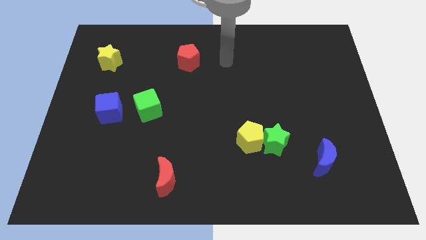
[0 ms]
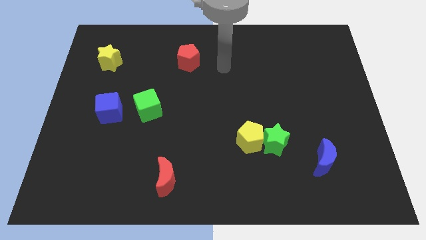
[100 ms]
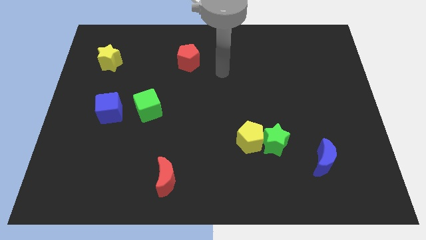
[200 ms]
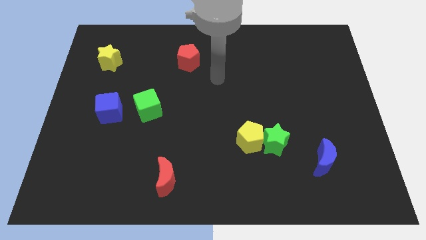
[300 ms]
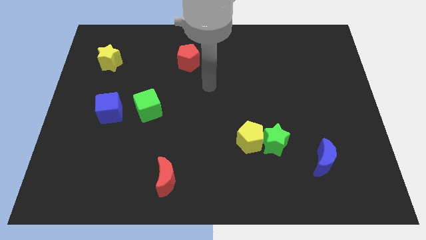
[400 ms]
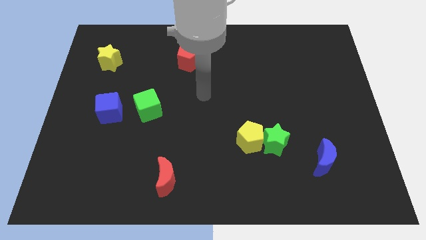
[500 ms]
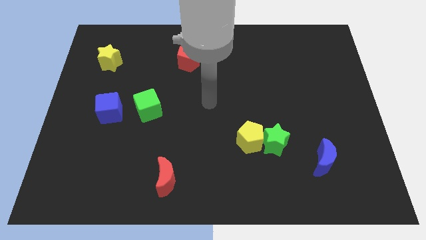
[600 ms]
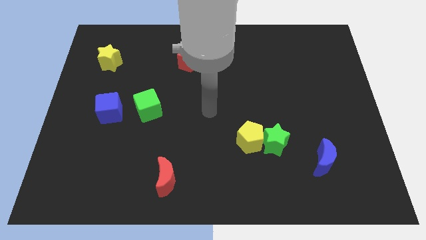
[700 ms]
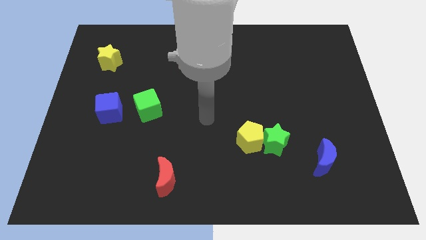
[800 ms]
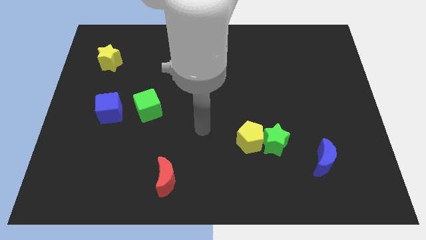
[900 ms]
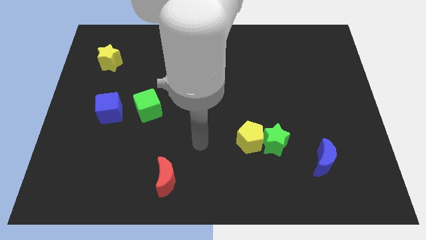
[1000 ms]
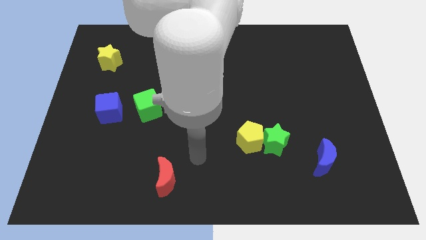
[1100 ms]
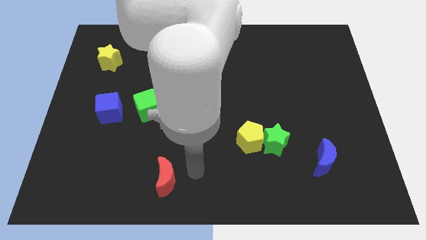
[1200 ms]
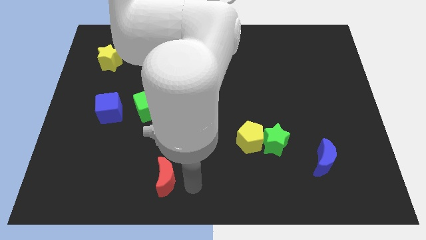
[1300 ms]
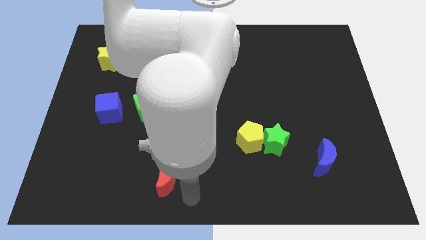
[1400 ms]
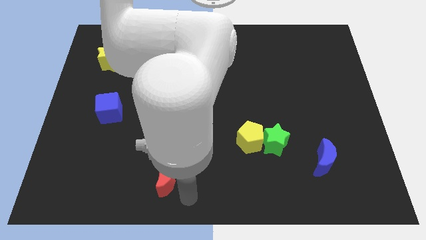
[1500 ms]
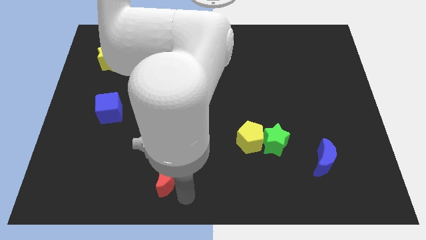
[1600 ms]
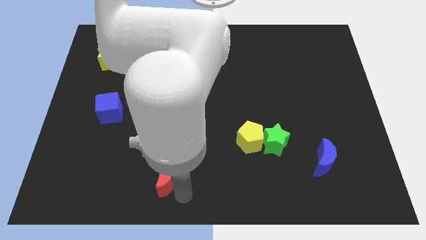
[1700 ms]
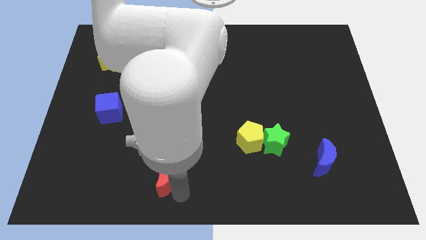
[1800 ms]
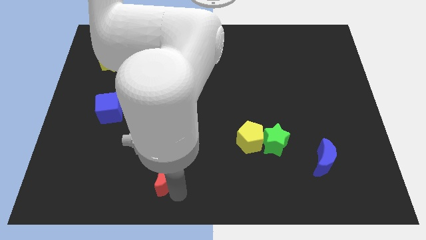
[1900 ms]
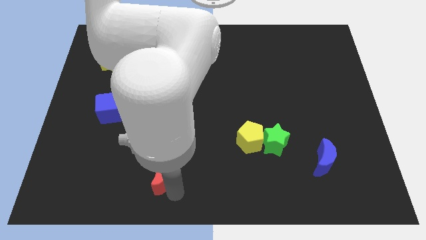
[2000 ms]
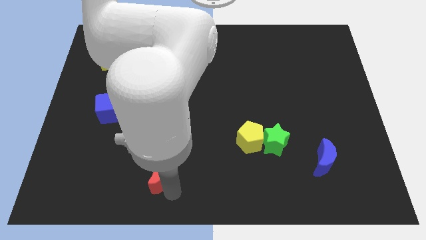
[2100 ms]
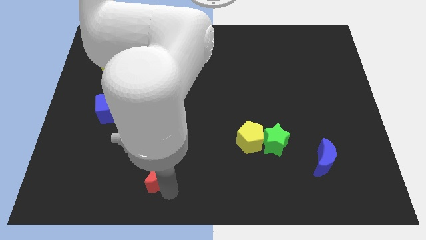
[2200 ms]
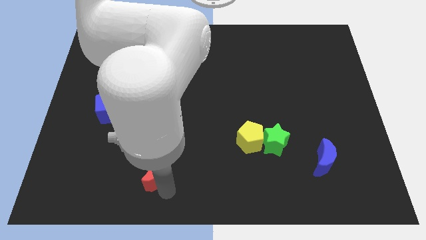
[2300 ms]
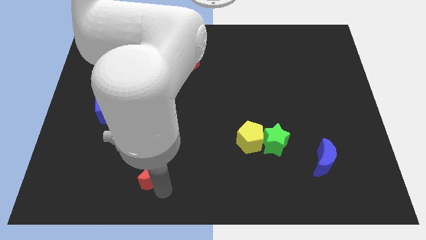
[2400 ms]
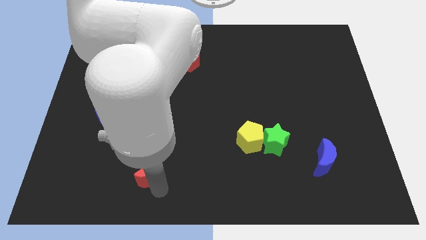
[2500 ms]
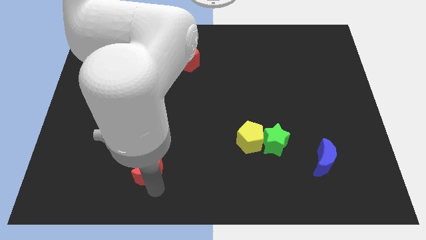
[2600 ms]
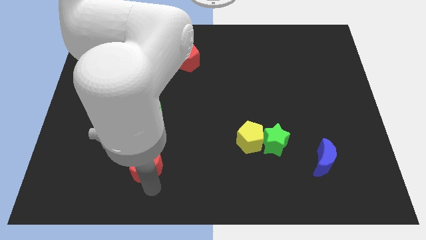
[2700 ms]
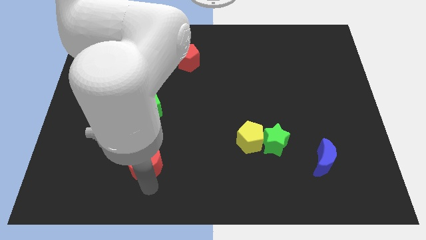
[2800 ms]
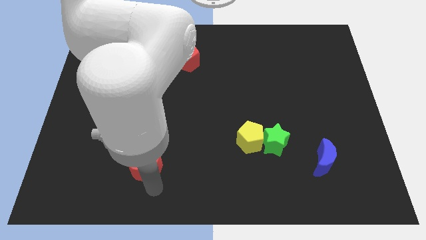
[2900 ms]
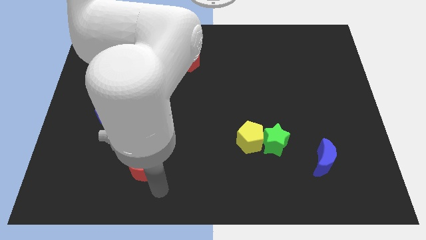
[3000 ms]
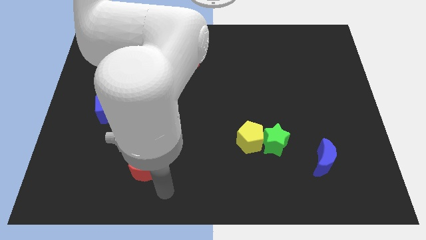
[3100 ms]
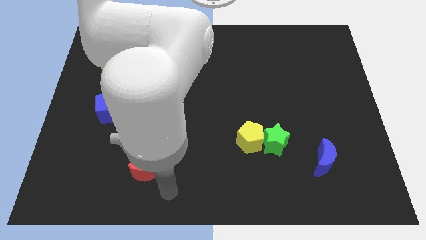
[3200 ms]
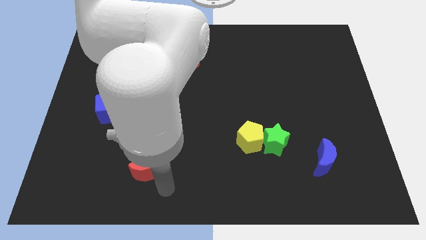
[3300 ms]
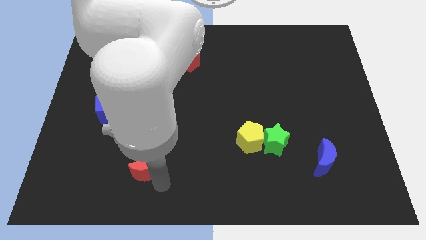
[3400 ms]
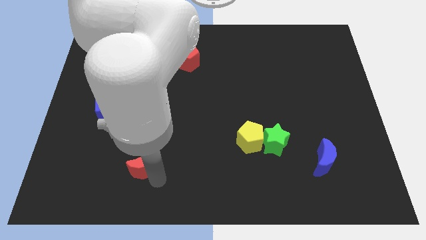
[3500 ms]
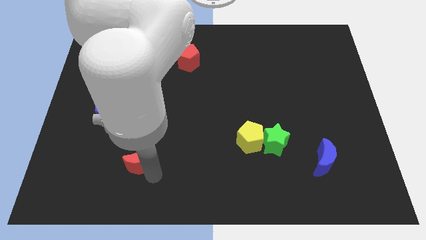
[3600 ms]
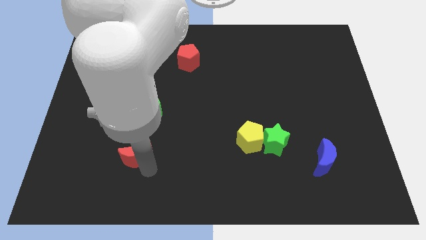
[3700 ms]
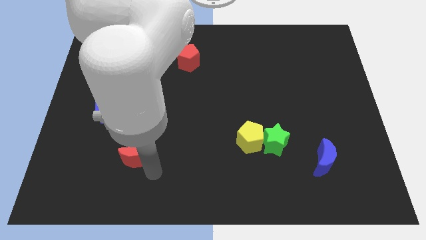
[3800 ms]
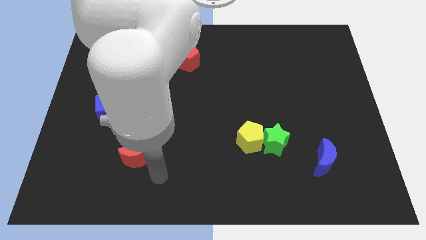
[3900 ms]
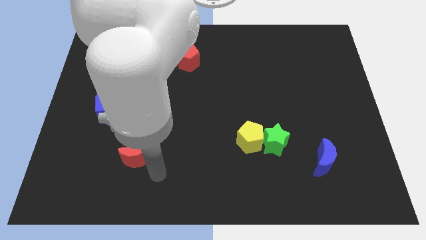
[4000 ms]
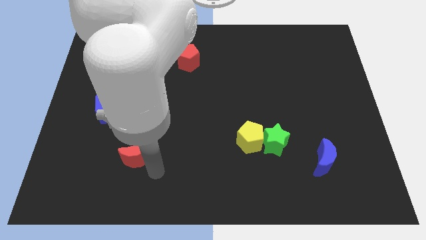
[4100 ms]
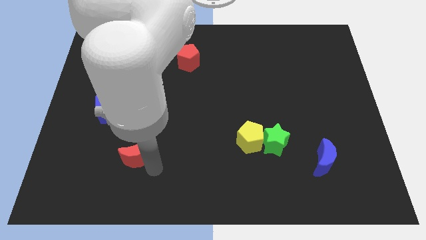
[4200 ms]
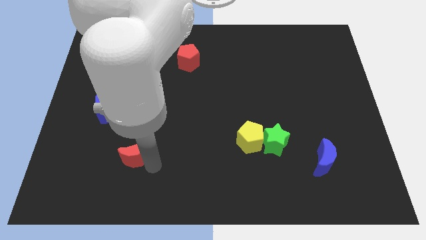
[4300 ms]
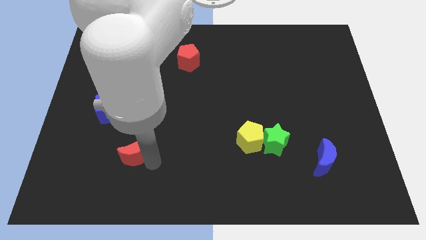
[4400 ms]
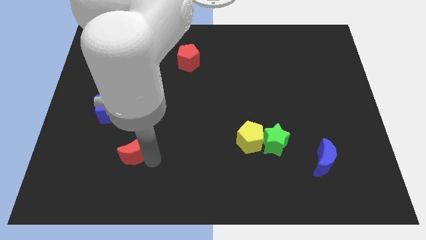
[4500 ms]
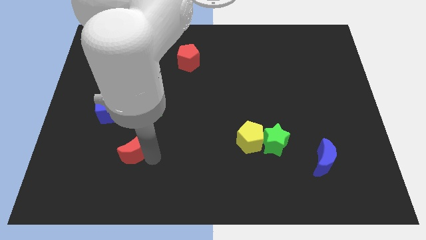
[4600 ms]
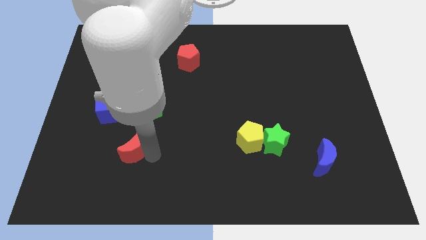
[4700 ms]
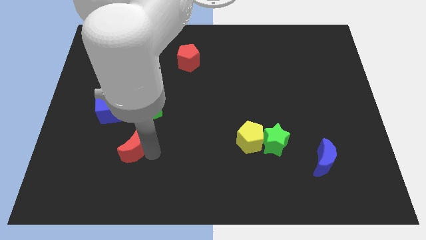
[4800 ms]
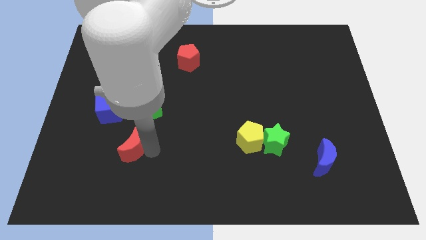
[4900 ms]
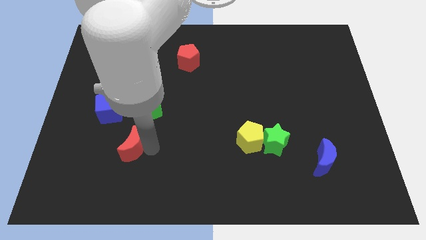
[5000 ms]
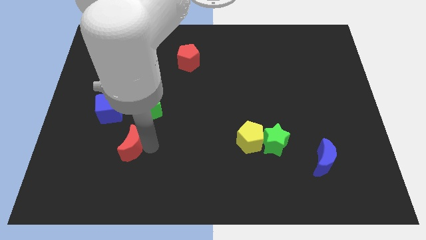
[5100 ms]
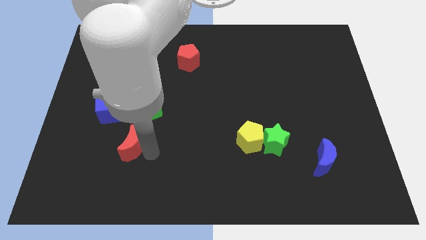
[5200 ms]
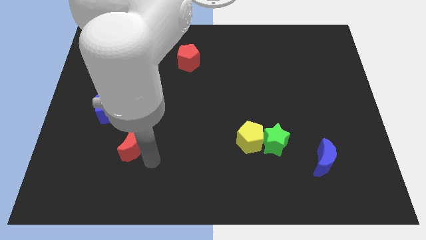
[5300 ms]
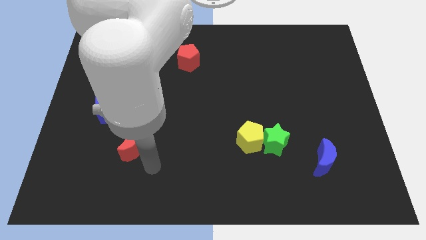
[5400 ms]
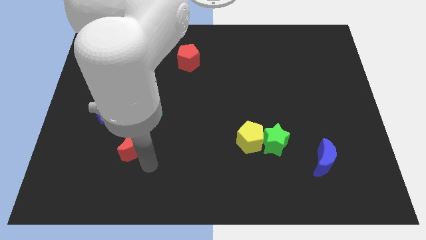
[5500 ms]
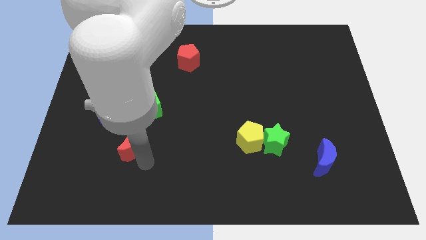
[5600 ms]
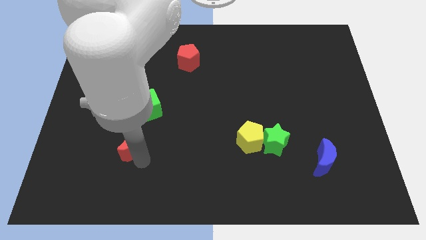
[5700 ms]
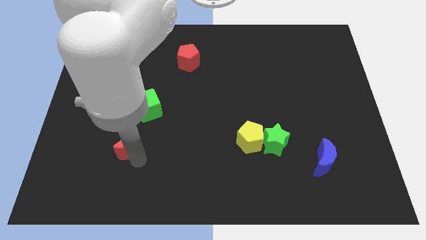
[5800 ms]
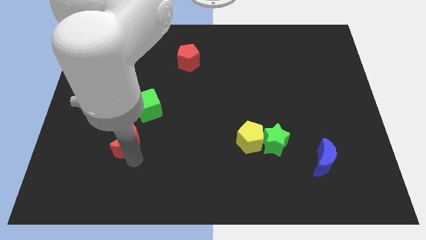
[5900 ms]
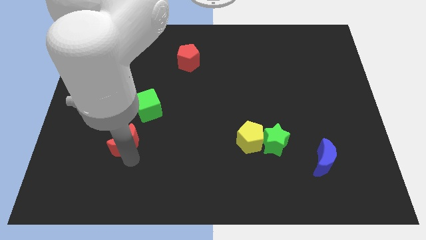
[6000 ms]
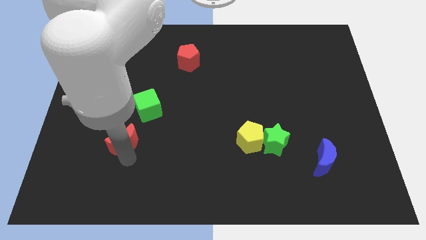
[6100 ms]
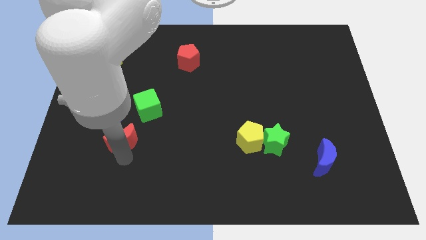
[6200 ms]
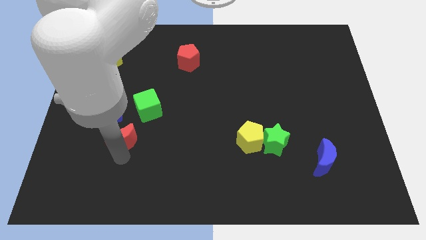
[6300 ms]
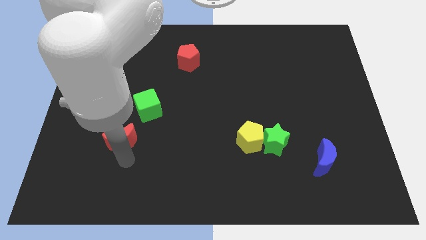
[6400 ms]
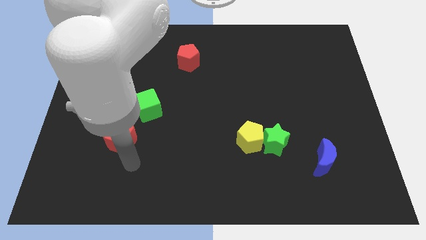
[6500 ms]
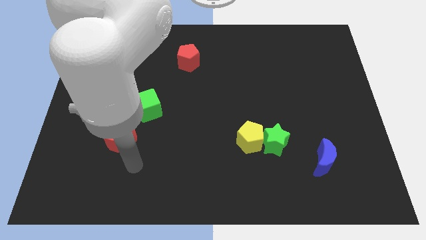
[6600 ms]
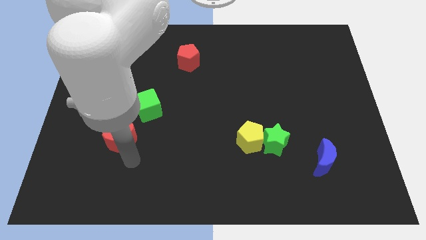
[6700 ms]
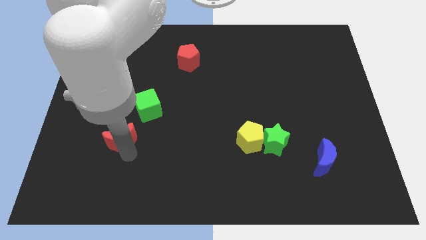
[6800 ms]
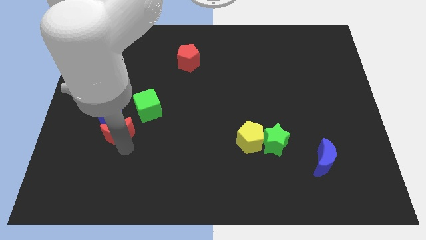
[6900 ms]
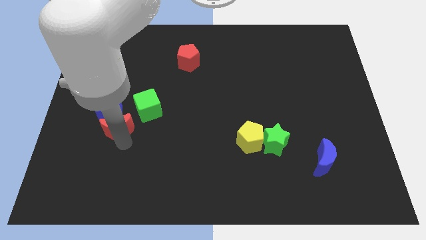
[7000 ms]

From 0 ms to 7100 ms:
move the red moon close to the blue cube
